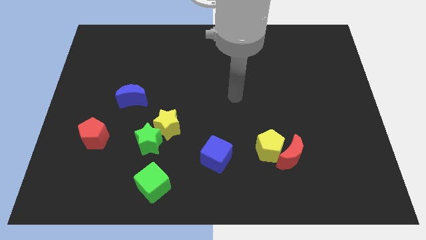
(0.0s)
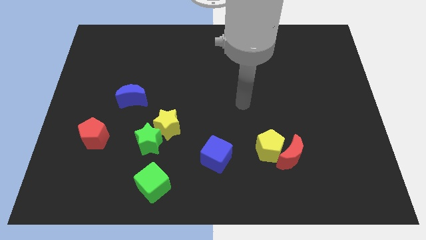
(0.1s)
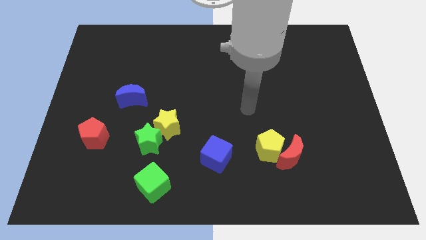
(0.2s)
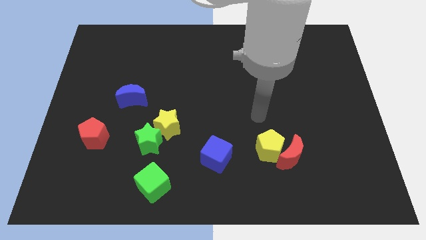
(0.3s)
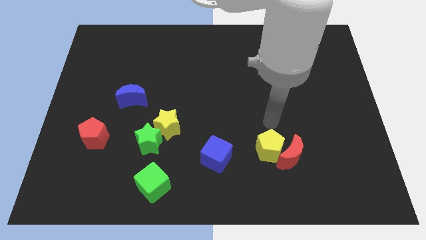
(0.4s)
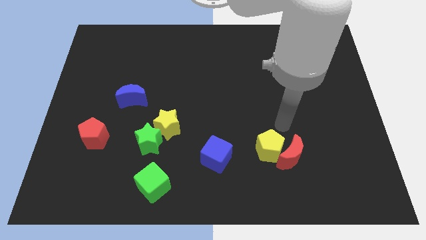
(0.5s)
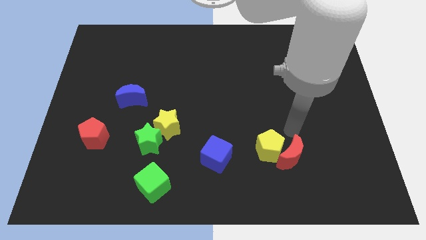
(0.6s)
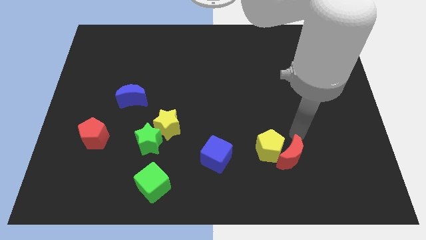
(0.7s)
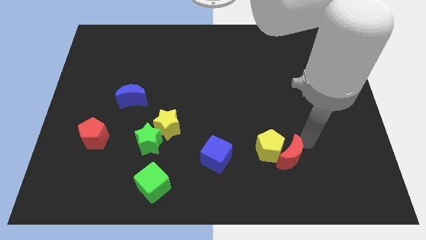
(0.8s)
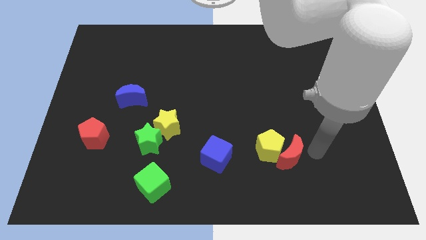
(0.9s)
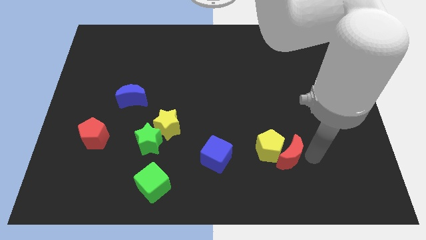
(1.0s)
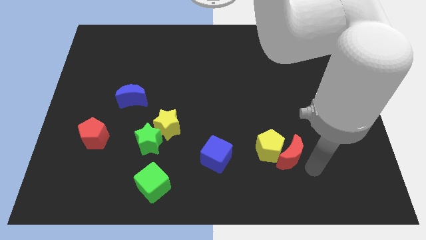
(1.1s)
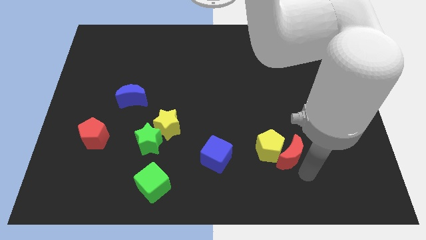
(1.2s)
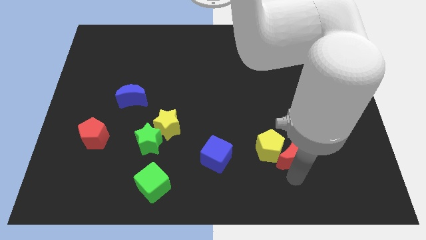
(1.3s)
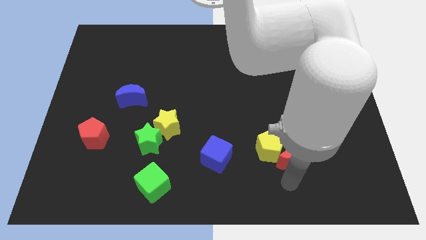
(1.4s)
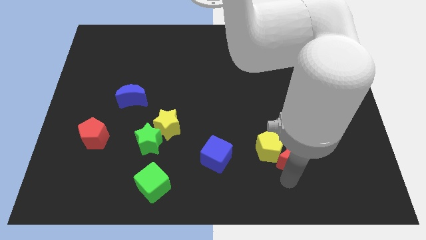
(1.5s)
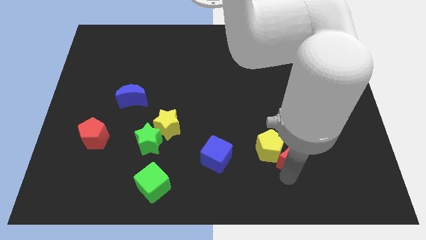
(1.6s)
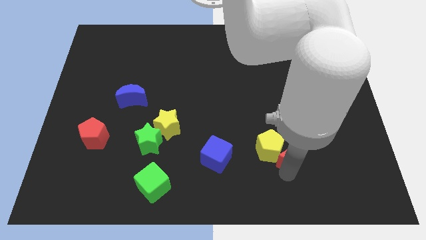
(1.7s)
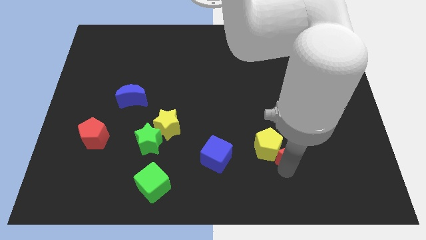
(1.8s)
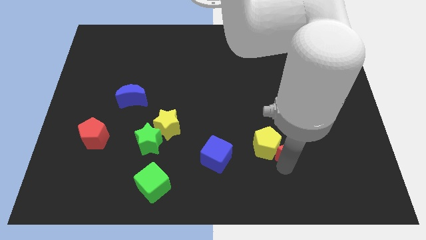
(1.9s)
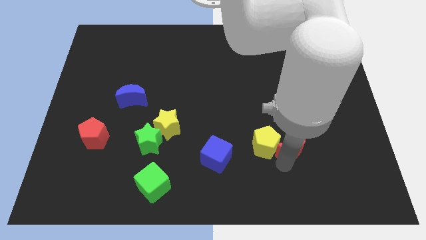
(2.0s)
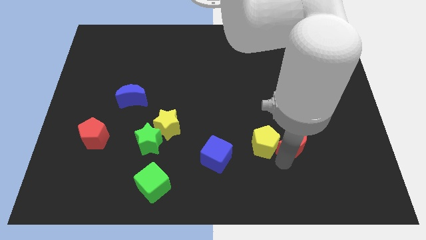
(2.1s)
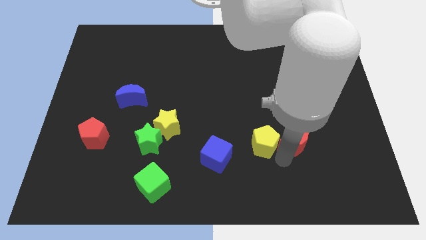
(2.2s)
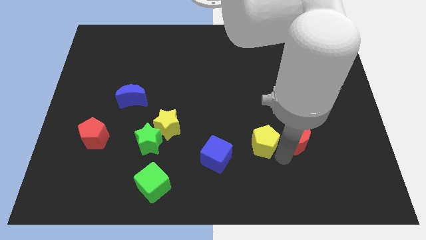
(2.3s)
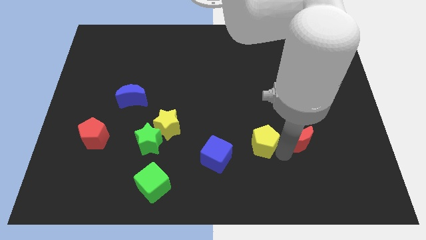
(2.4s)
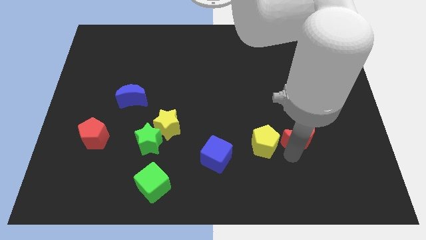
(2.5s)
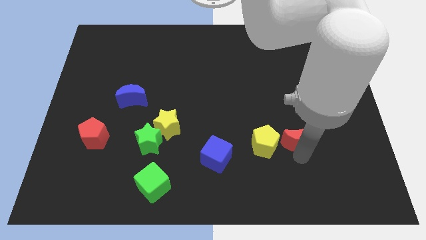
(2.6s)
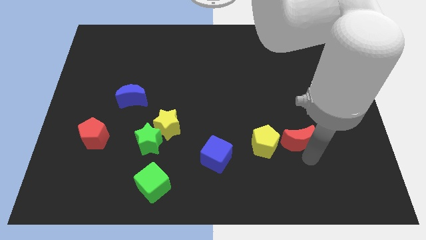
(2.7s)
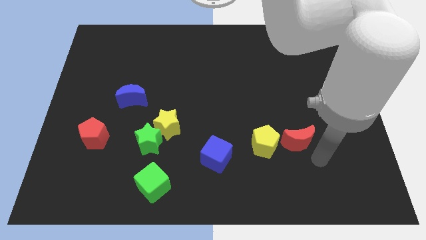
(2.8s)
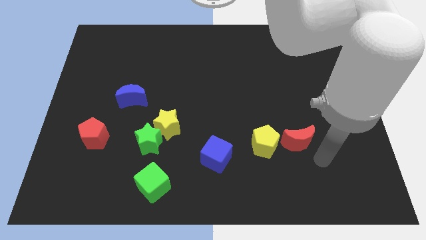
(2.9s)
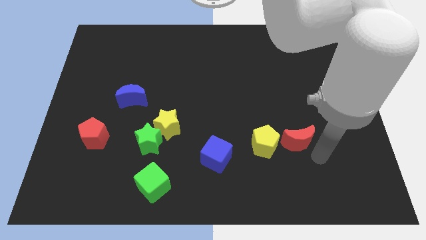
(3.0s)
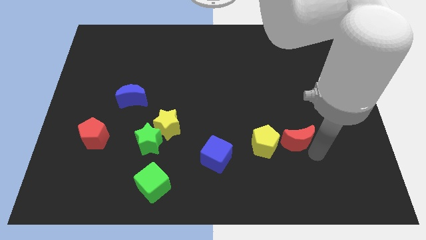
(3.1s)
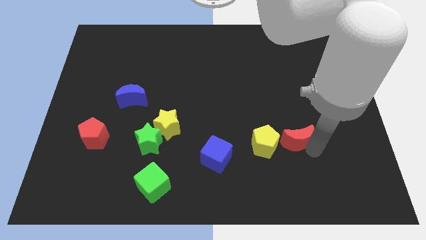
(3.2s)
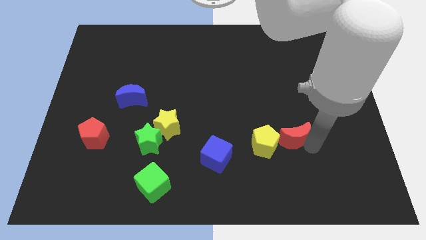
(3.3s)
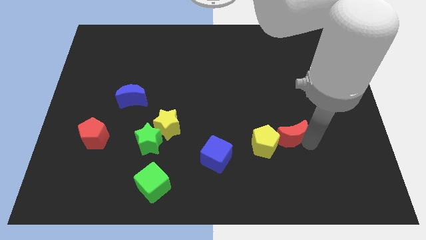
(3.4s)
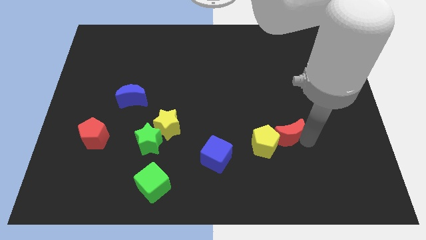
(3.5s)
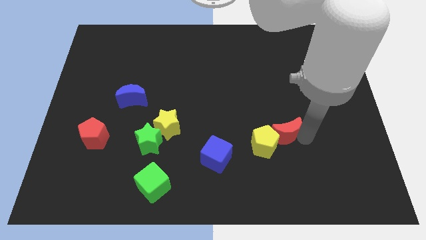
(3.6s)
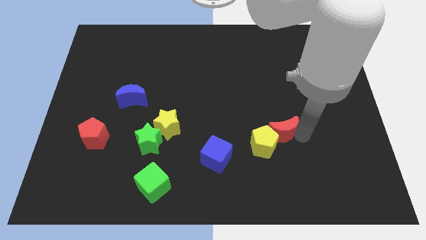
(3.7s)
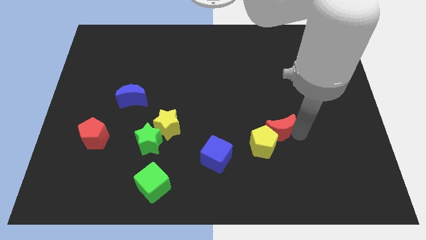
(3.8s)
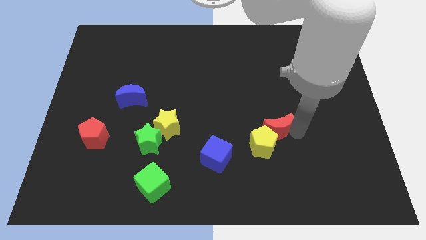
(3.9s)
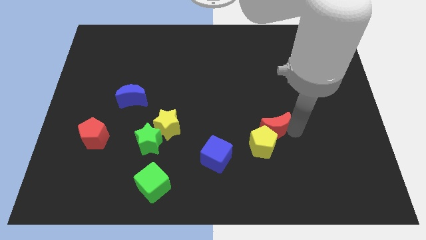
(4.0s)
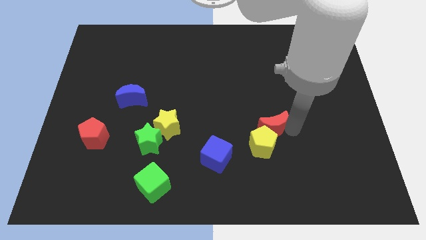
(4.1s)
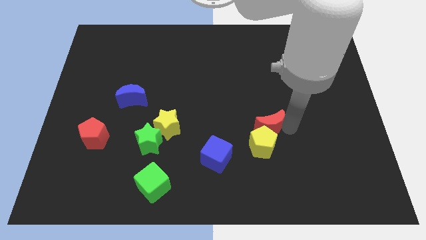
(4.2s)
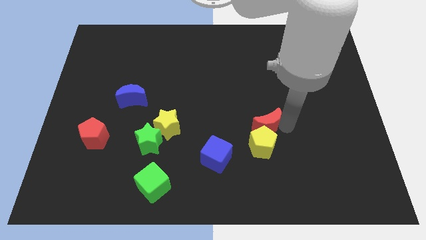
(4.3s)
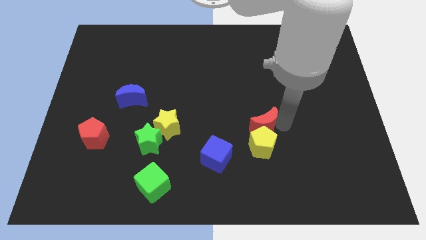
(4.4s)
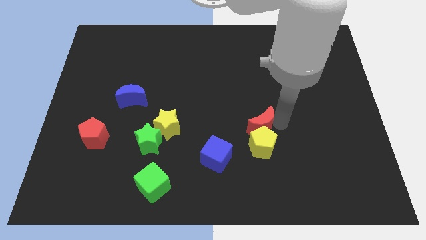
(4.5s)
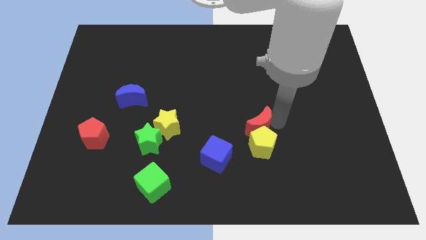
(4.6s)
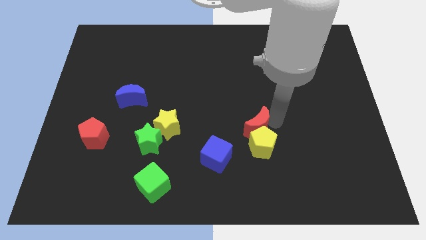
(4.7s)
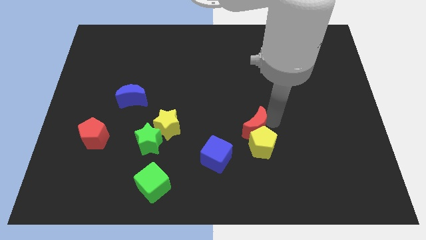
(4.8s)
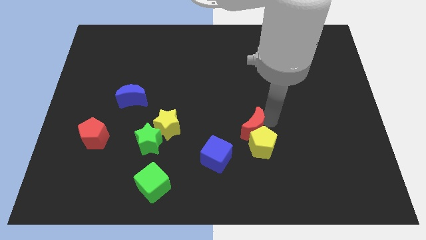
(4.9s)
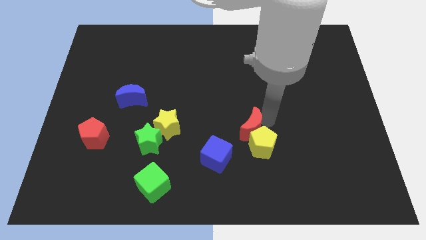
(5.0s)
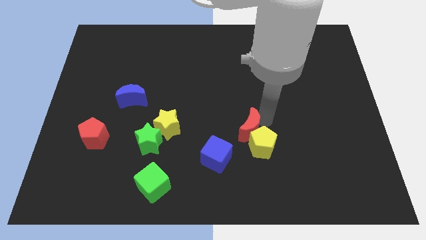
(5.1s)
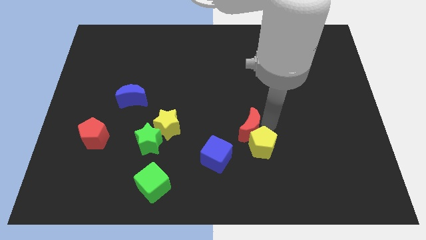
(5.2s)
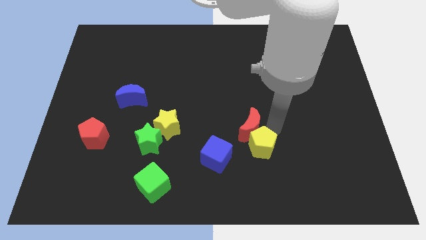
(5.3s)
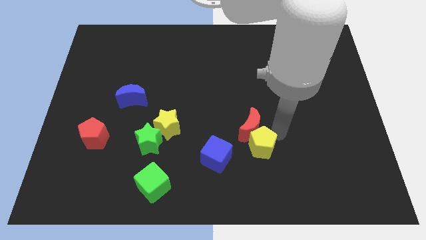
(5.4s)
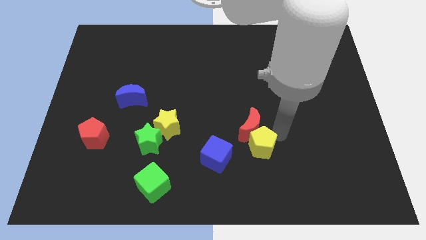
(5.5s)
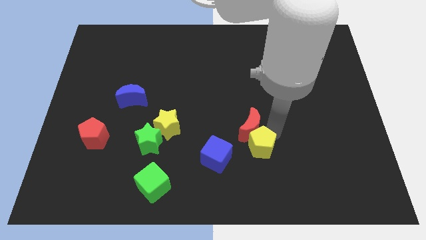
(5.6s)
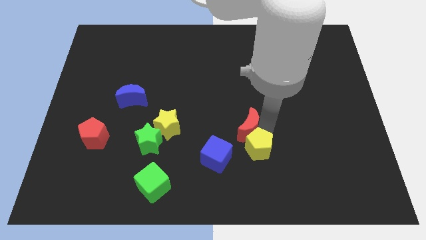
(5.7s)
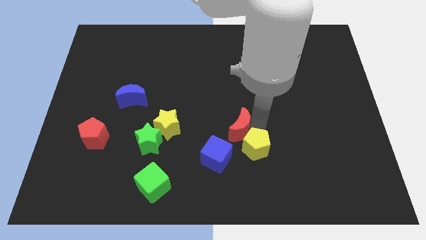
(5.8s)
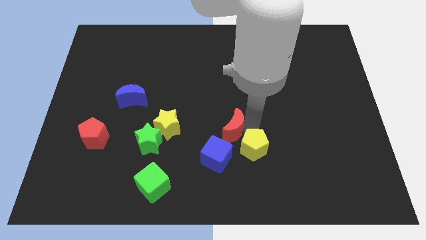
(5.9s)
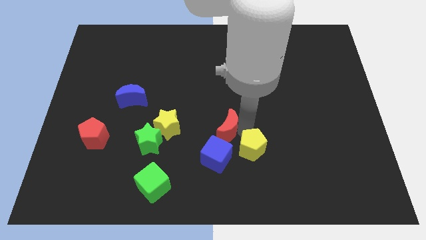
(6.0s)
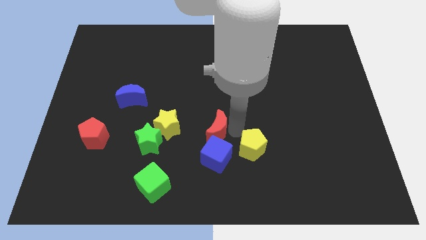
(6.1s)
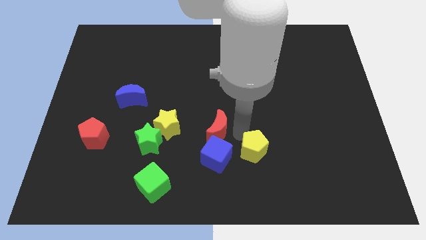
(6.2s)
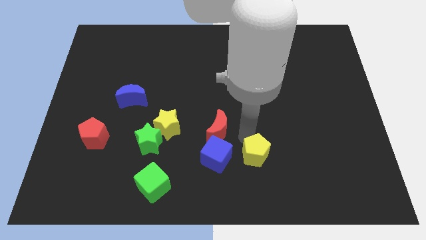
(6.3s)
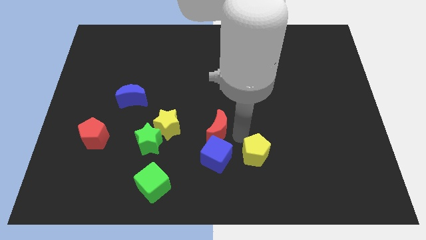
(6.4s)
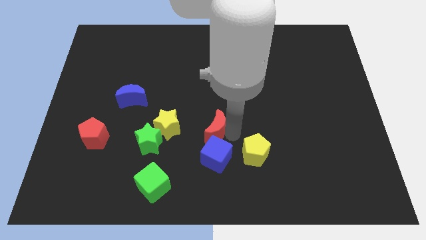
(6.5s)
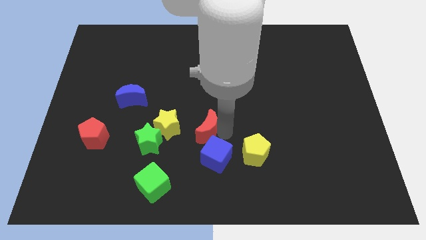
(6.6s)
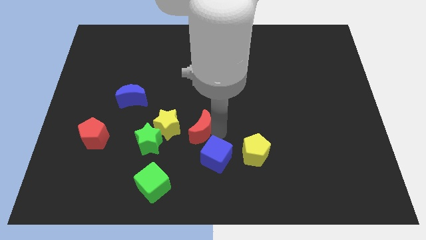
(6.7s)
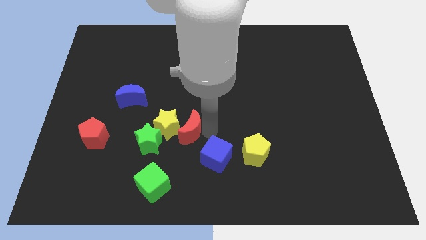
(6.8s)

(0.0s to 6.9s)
put the red moon to the yellow star

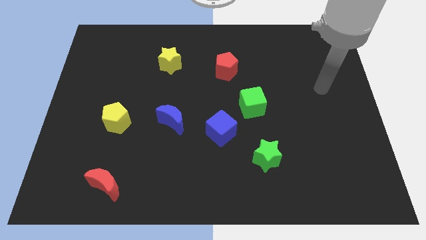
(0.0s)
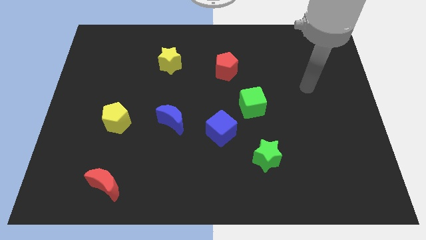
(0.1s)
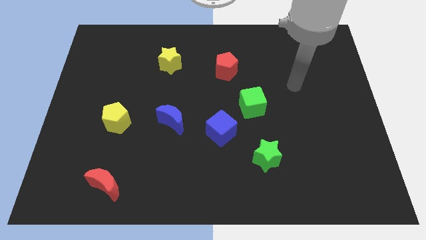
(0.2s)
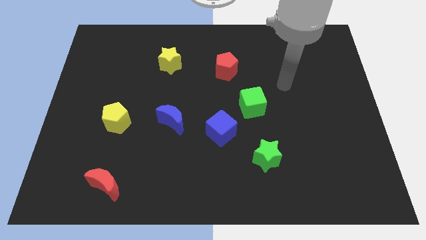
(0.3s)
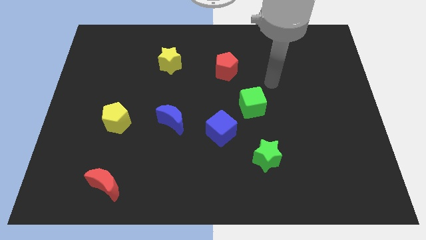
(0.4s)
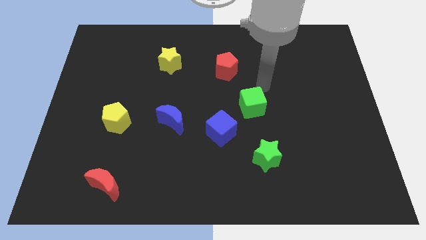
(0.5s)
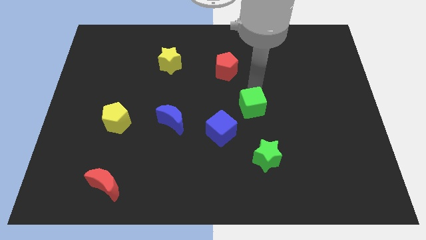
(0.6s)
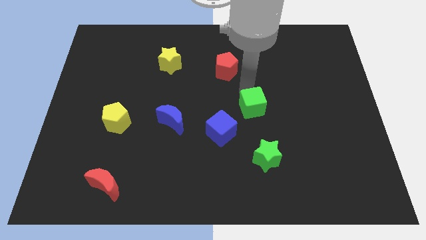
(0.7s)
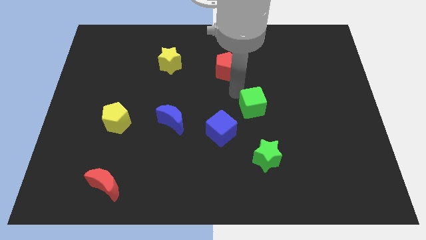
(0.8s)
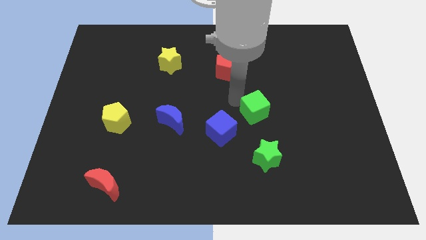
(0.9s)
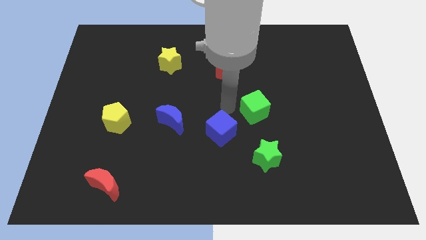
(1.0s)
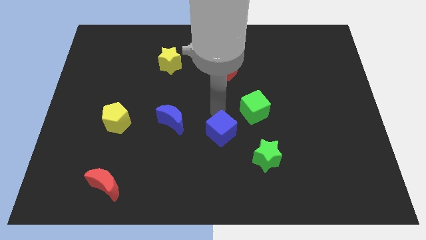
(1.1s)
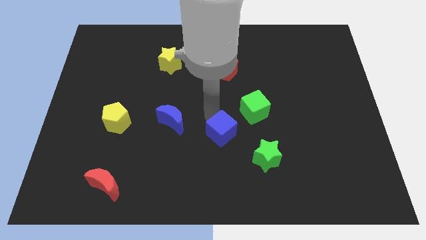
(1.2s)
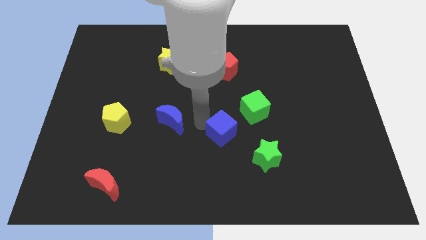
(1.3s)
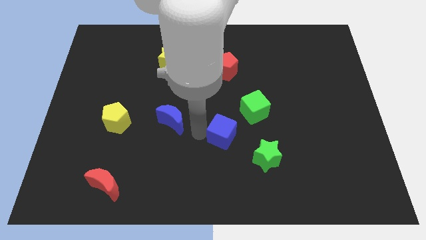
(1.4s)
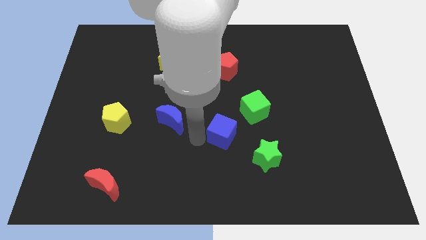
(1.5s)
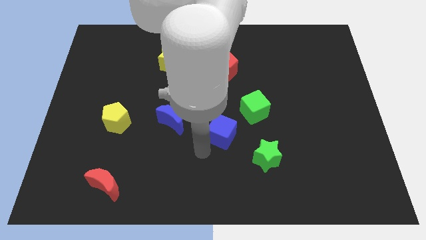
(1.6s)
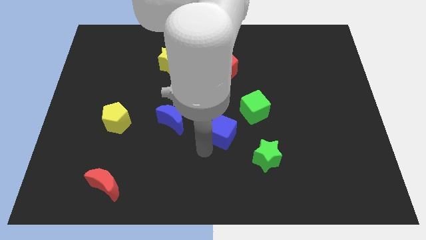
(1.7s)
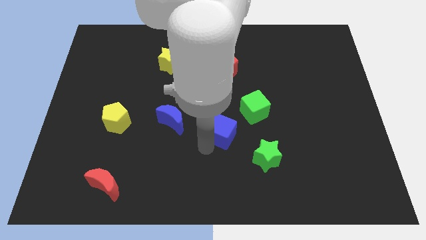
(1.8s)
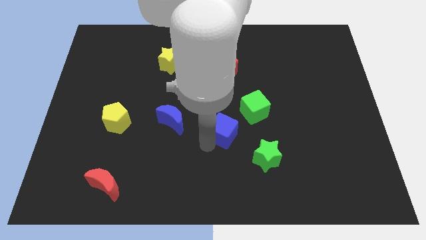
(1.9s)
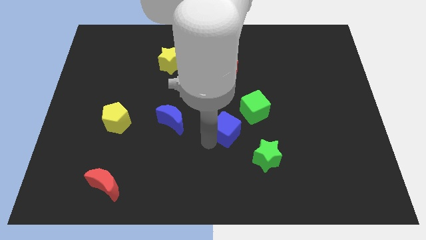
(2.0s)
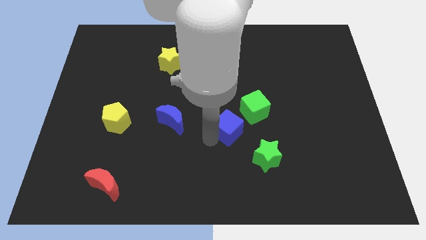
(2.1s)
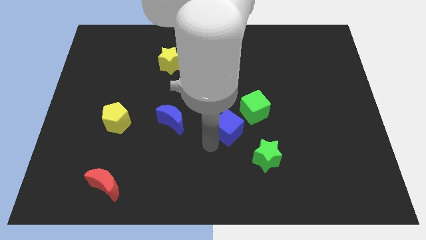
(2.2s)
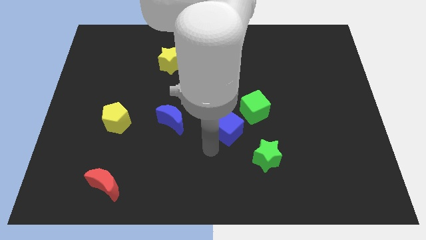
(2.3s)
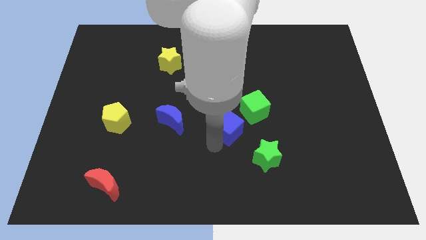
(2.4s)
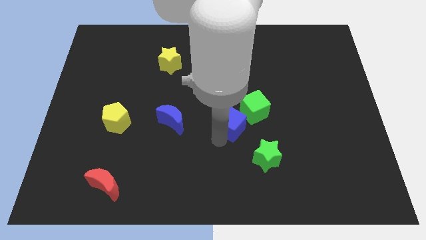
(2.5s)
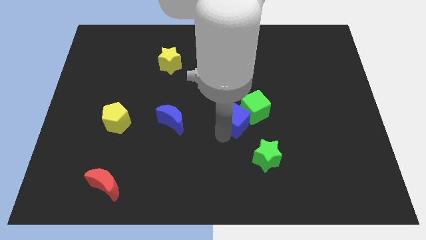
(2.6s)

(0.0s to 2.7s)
push the blue cube close to the green cube
